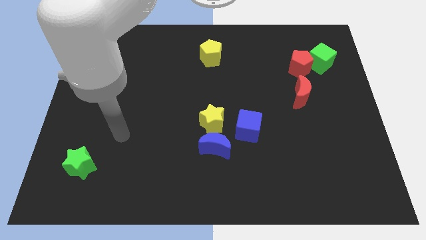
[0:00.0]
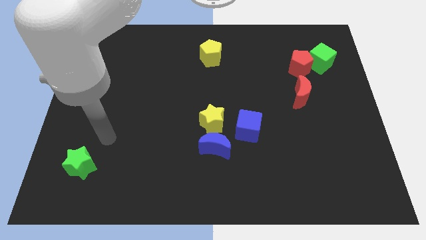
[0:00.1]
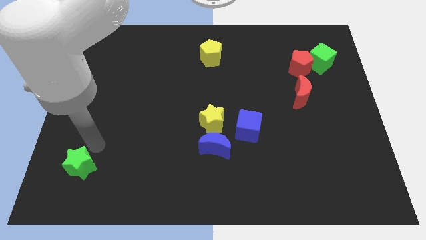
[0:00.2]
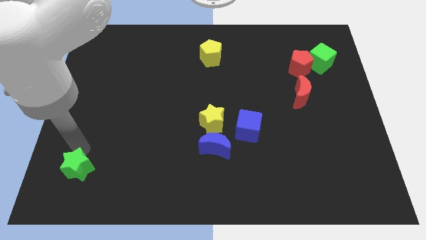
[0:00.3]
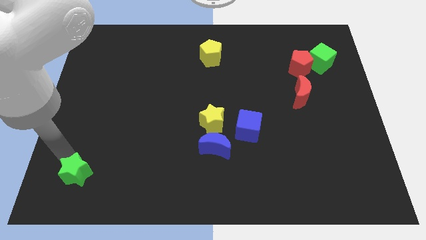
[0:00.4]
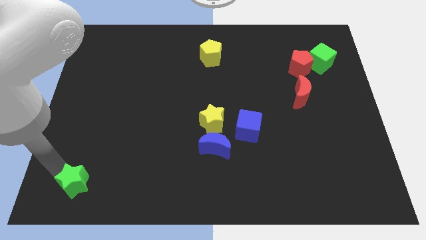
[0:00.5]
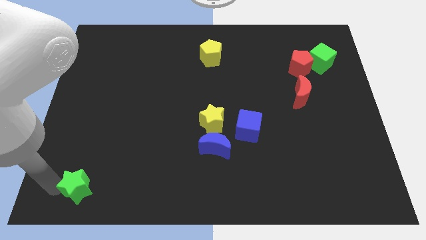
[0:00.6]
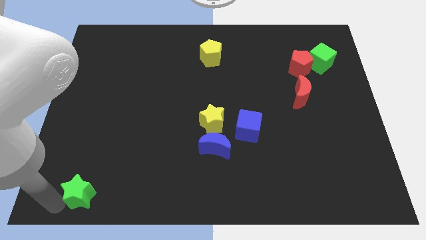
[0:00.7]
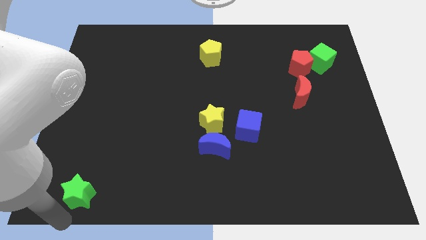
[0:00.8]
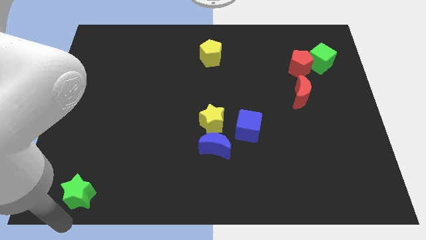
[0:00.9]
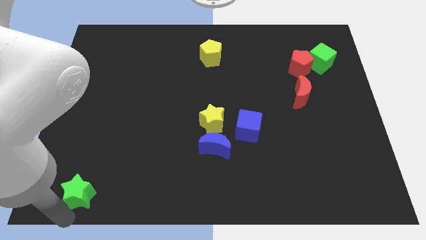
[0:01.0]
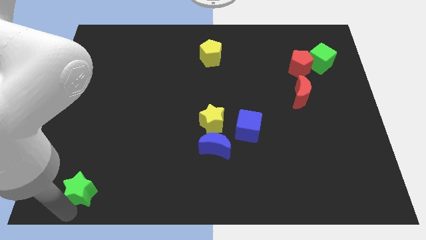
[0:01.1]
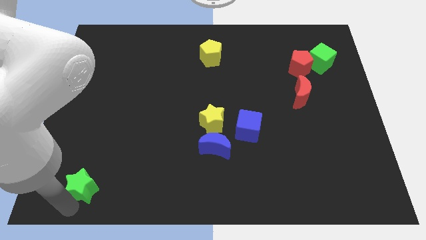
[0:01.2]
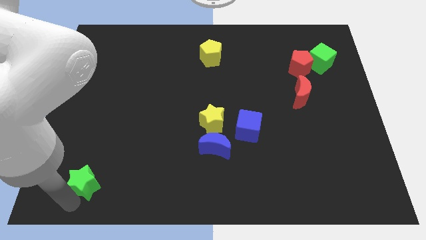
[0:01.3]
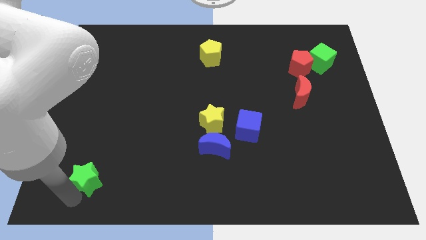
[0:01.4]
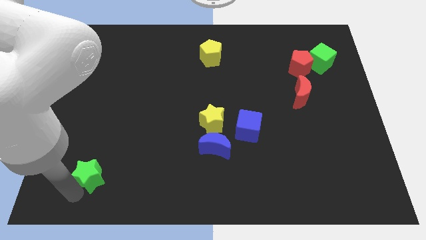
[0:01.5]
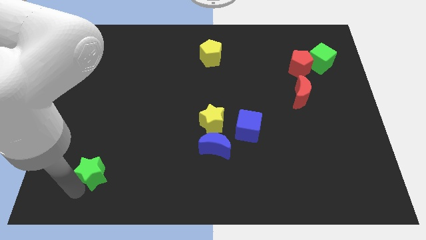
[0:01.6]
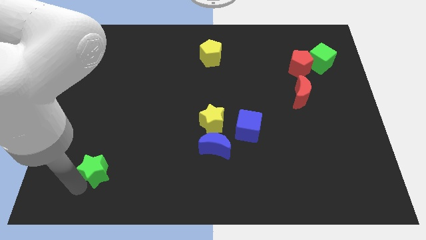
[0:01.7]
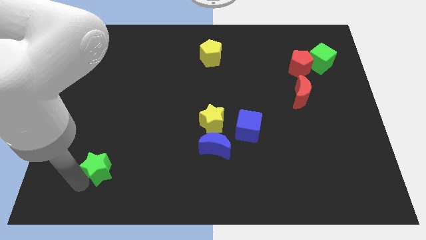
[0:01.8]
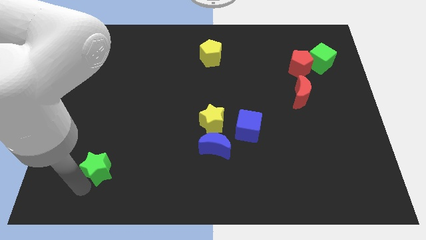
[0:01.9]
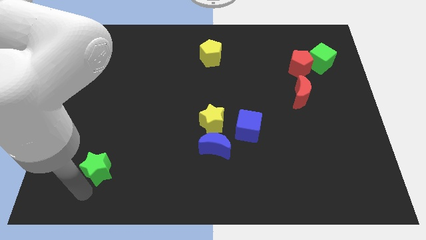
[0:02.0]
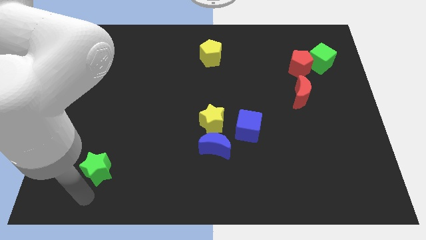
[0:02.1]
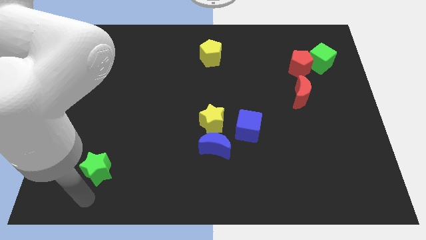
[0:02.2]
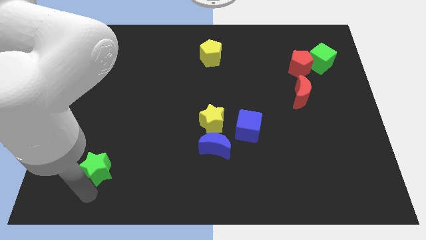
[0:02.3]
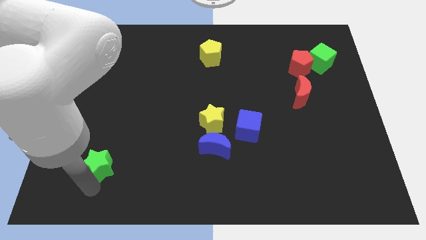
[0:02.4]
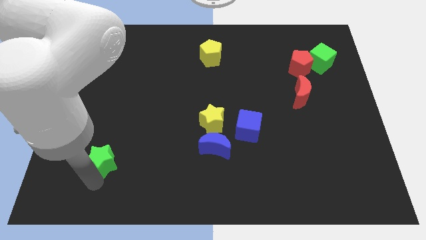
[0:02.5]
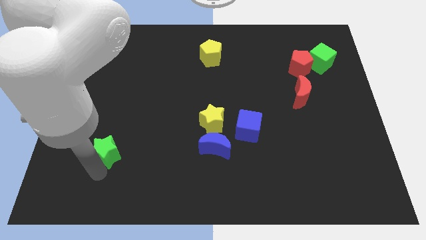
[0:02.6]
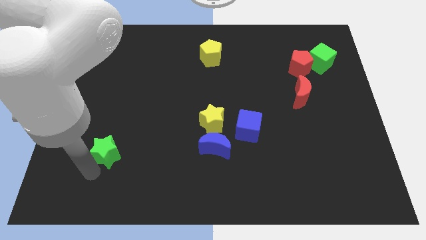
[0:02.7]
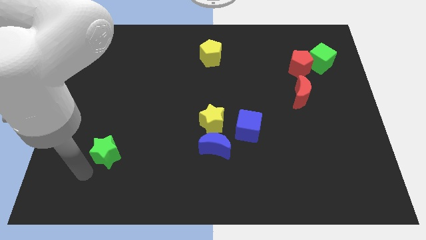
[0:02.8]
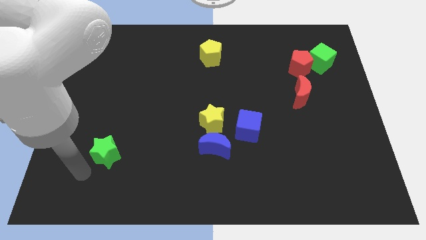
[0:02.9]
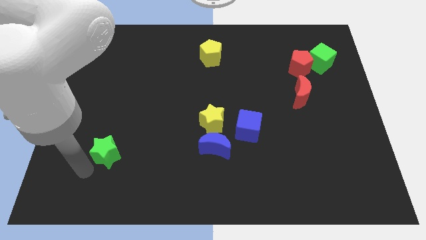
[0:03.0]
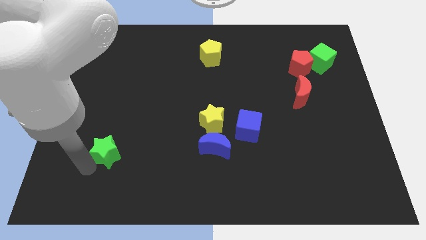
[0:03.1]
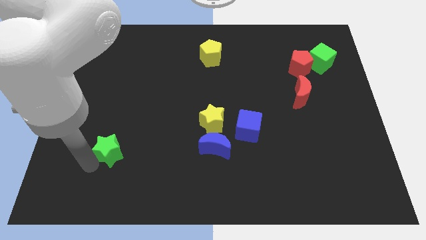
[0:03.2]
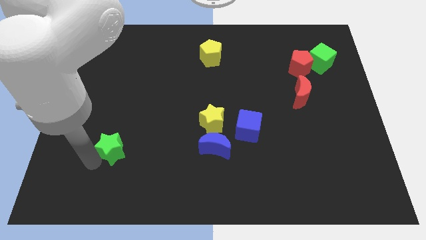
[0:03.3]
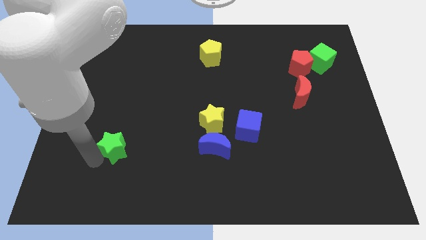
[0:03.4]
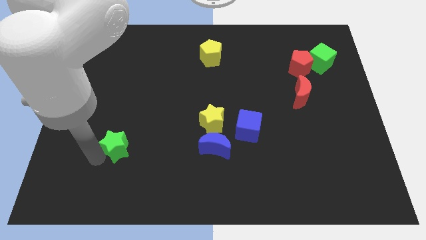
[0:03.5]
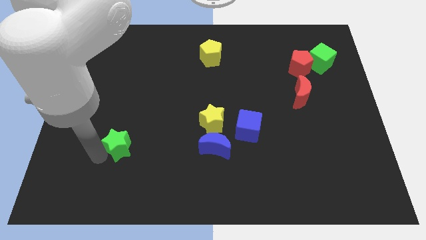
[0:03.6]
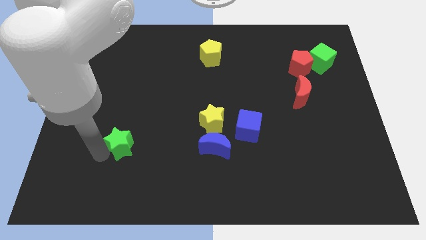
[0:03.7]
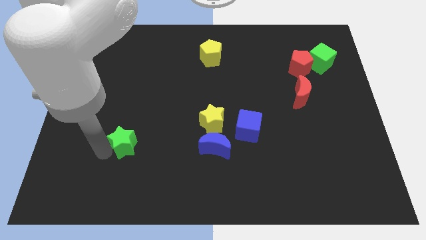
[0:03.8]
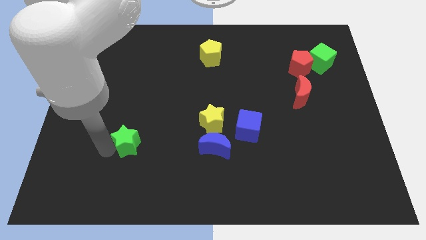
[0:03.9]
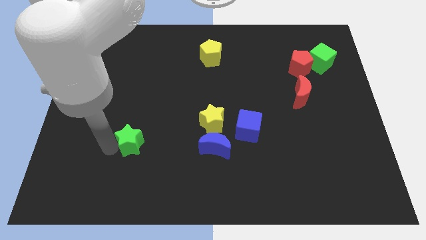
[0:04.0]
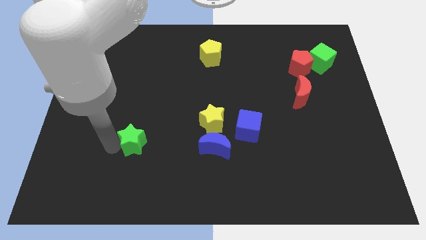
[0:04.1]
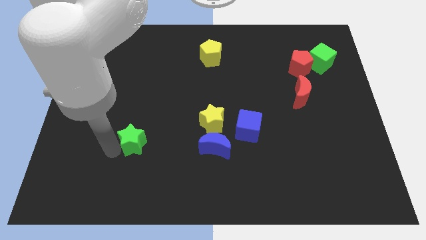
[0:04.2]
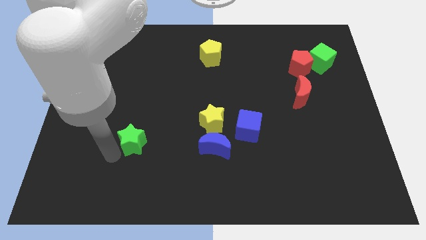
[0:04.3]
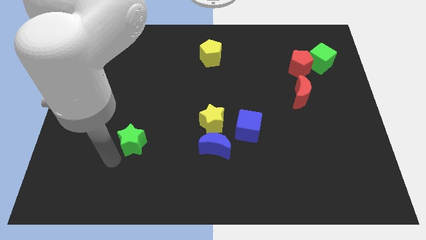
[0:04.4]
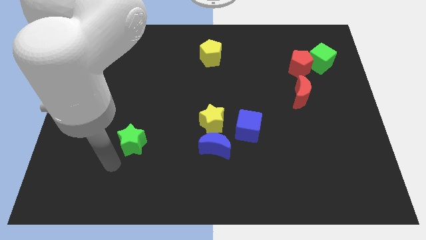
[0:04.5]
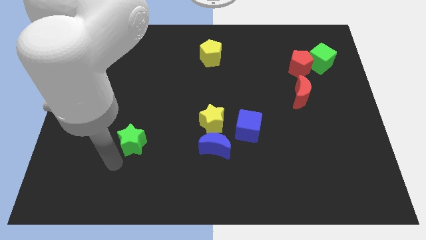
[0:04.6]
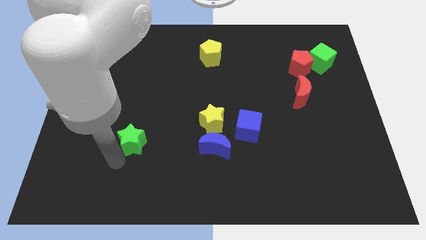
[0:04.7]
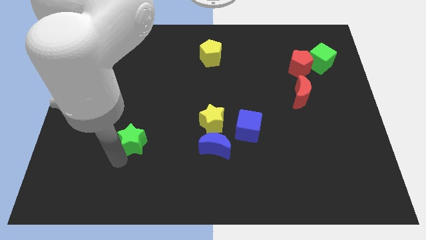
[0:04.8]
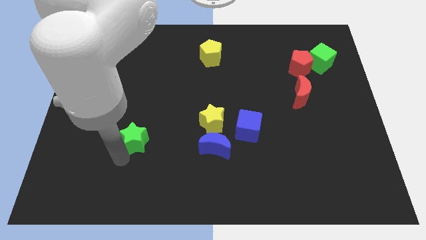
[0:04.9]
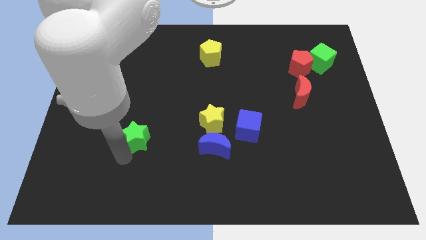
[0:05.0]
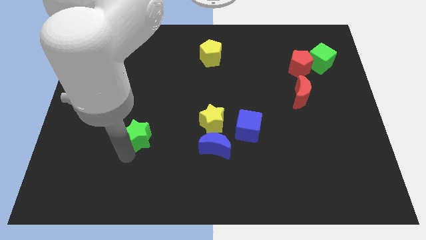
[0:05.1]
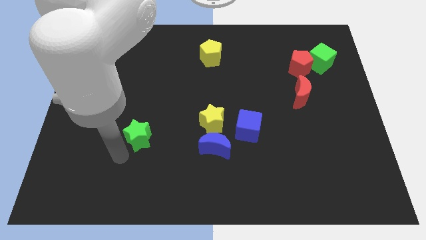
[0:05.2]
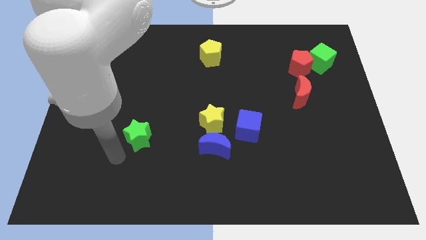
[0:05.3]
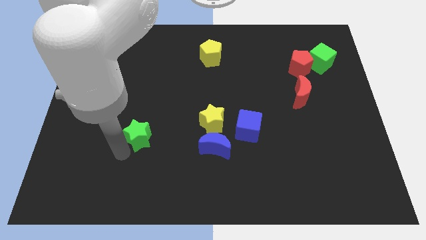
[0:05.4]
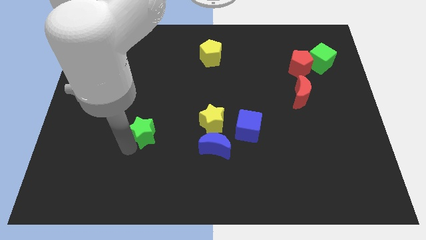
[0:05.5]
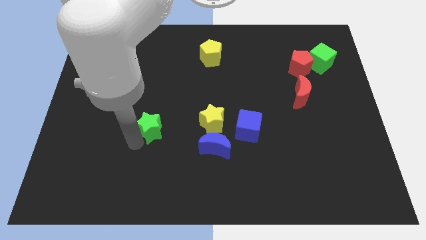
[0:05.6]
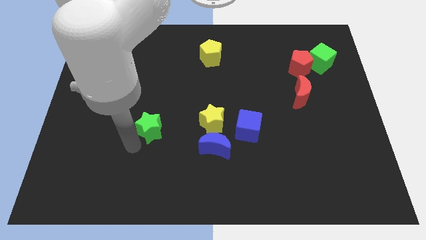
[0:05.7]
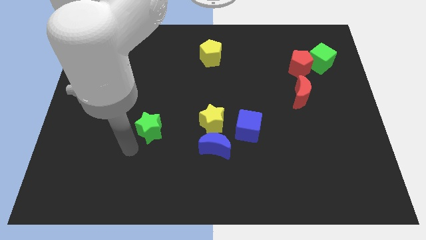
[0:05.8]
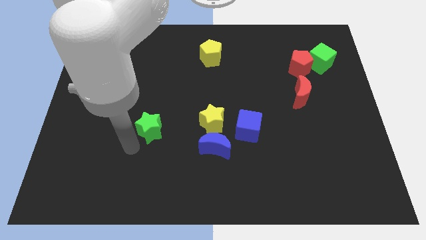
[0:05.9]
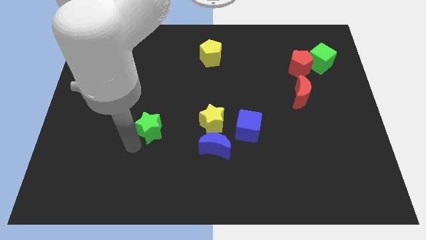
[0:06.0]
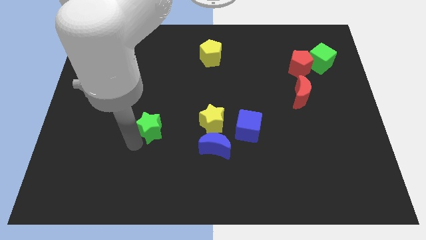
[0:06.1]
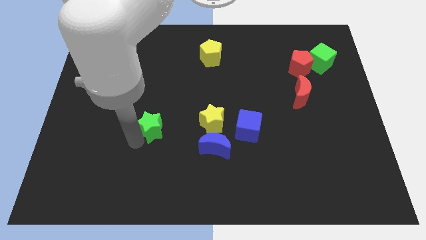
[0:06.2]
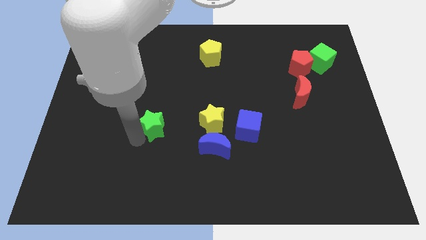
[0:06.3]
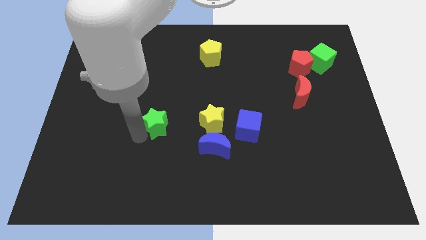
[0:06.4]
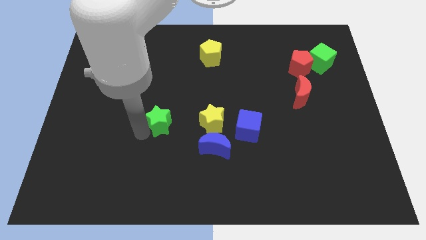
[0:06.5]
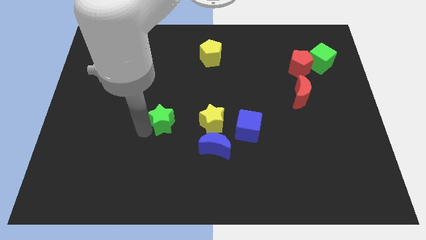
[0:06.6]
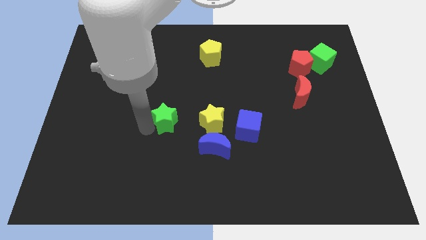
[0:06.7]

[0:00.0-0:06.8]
slide the green star to the center of the board
